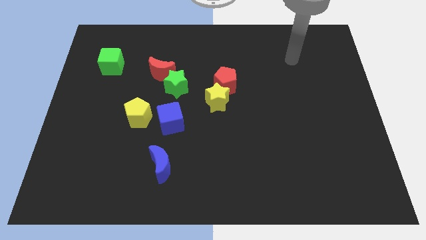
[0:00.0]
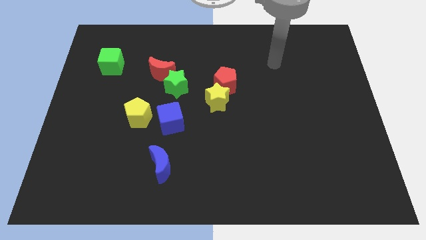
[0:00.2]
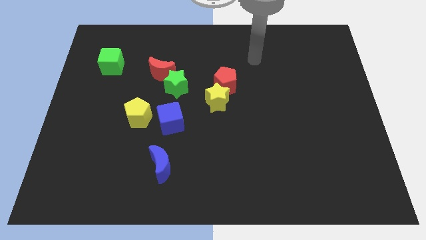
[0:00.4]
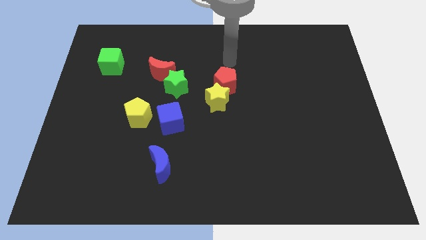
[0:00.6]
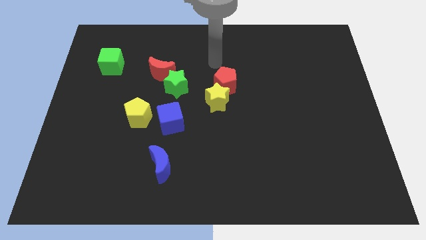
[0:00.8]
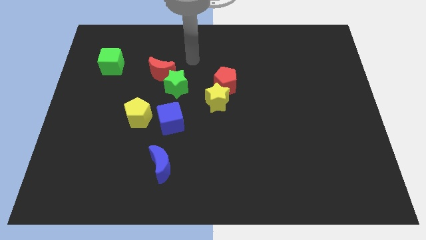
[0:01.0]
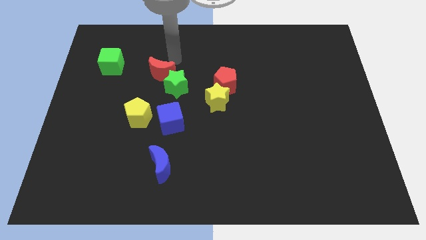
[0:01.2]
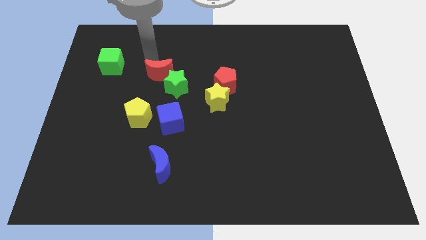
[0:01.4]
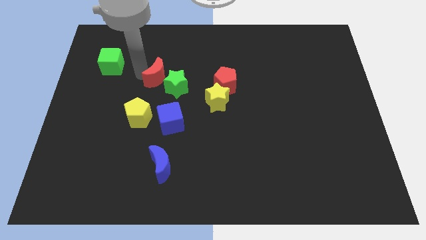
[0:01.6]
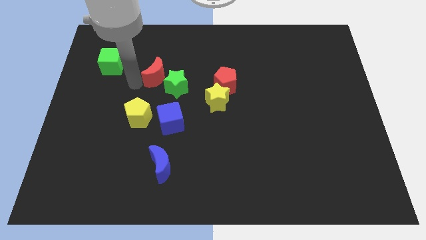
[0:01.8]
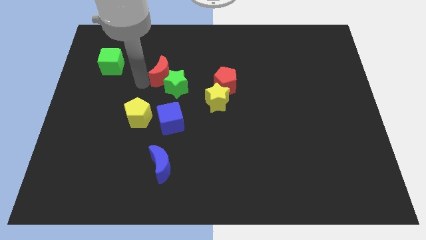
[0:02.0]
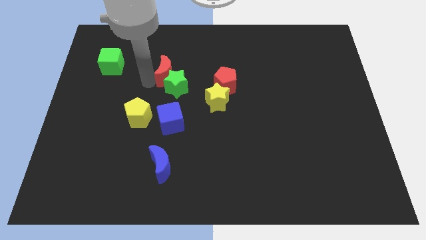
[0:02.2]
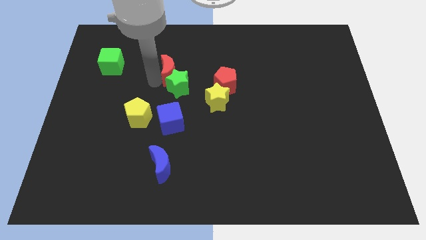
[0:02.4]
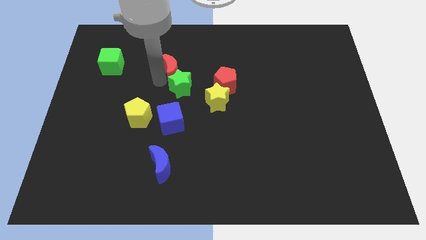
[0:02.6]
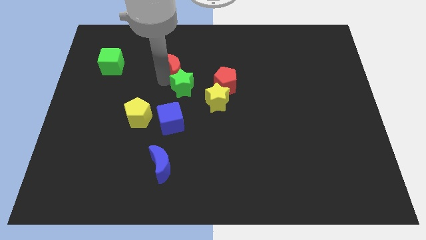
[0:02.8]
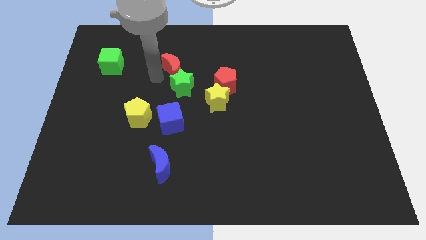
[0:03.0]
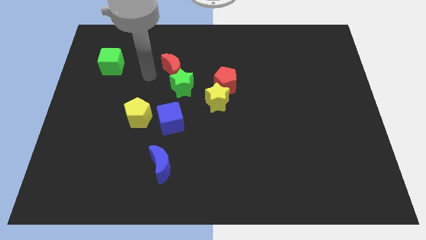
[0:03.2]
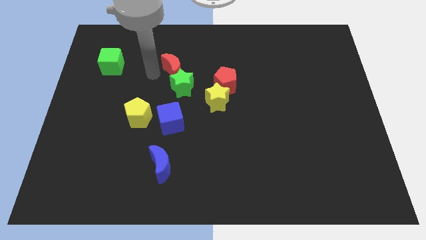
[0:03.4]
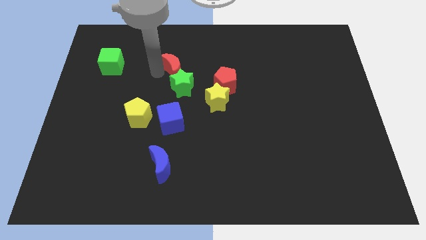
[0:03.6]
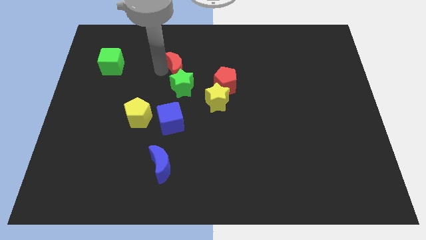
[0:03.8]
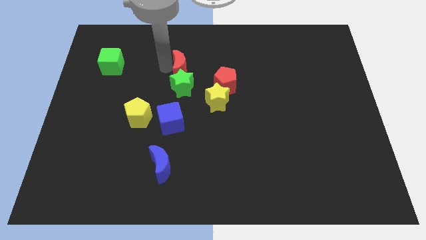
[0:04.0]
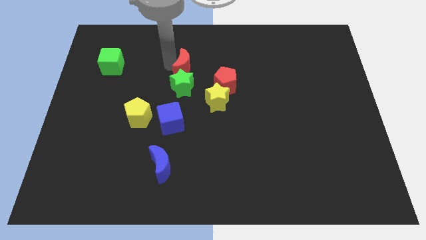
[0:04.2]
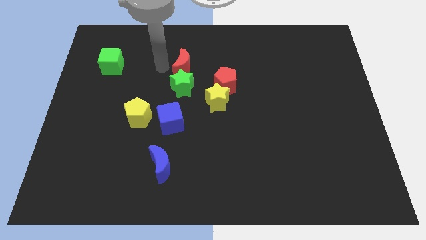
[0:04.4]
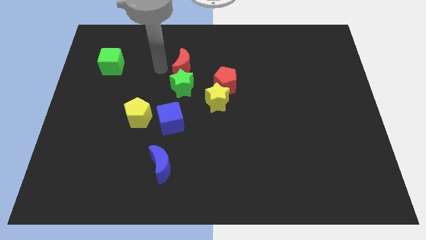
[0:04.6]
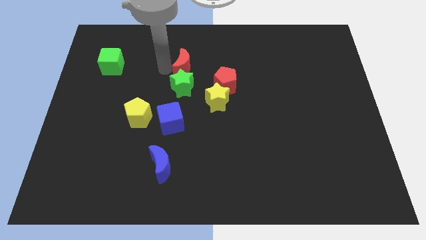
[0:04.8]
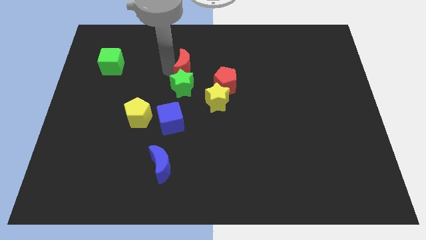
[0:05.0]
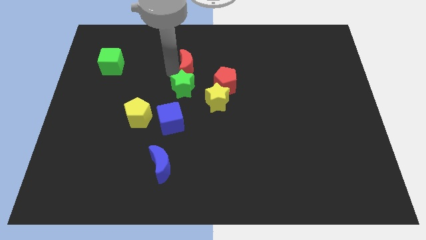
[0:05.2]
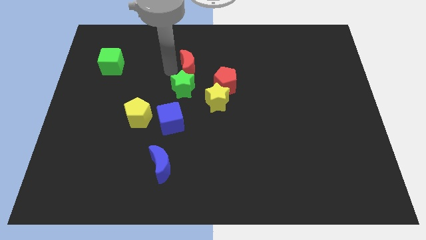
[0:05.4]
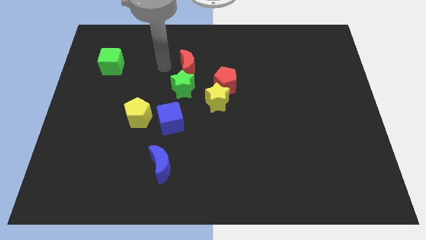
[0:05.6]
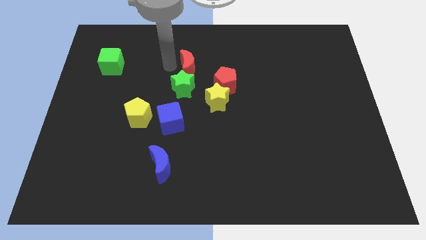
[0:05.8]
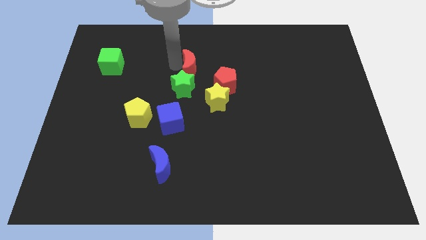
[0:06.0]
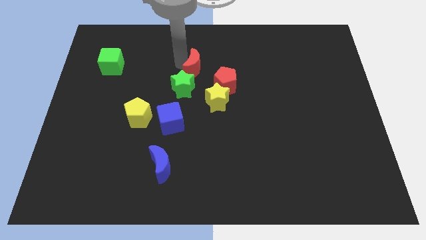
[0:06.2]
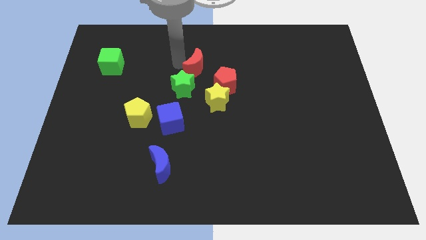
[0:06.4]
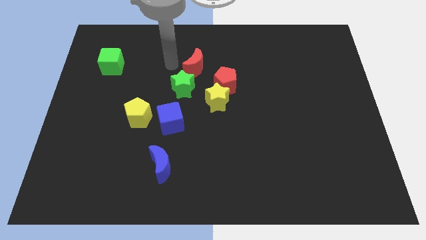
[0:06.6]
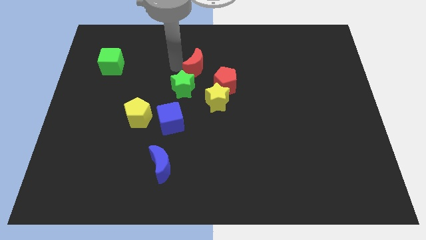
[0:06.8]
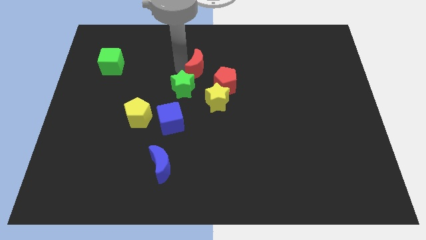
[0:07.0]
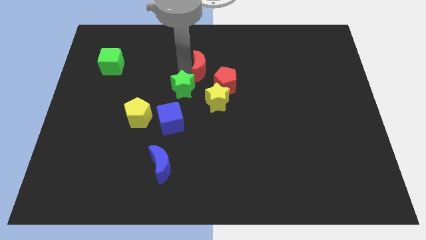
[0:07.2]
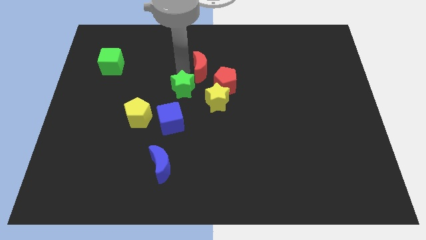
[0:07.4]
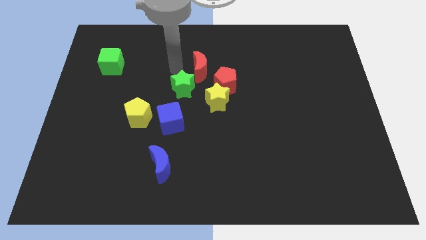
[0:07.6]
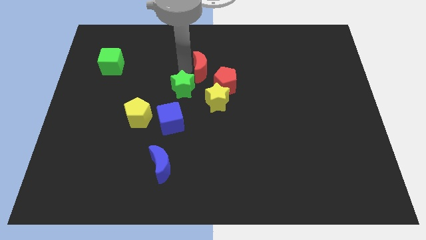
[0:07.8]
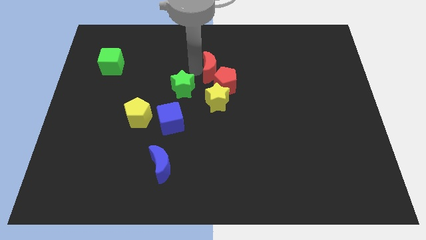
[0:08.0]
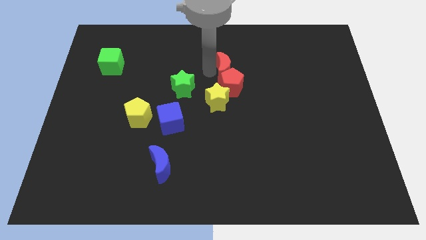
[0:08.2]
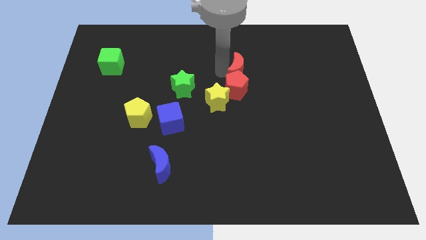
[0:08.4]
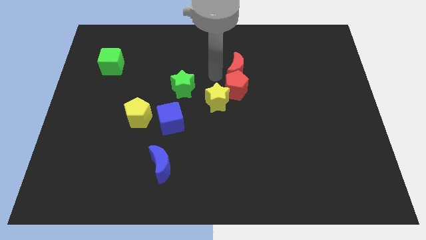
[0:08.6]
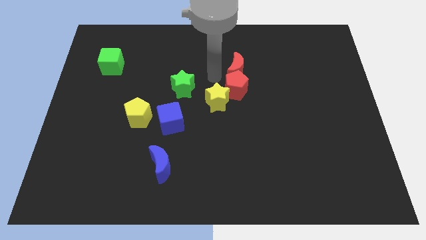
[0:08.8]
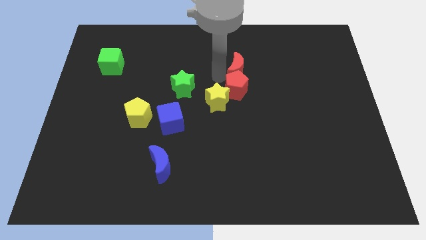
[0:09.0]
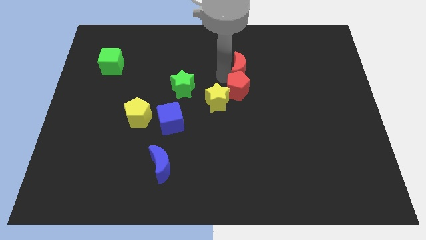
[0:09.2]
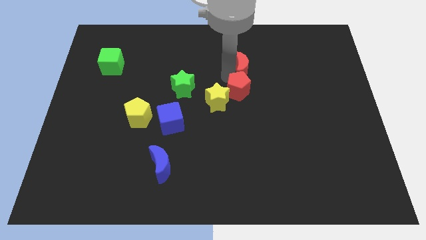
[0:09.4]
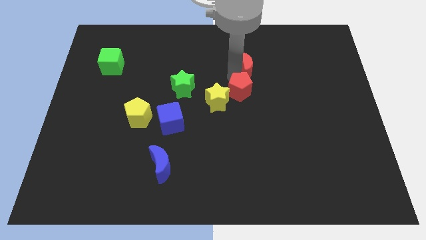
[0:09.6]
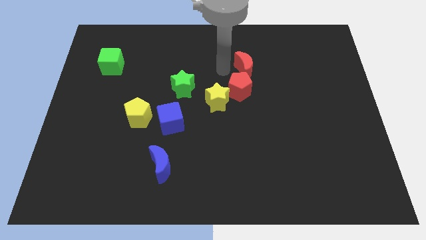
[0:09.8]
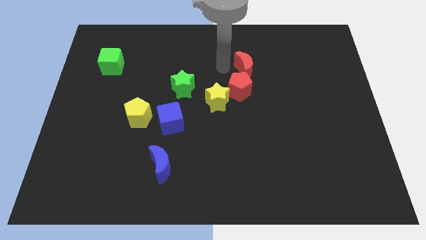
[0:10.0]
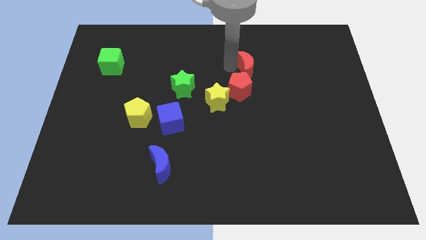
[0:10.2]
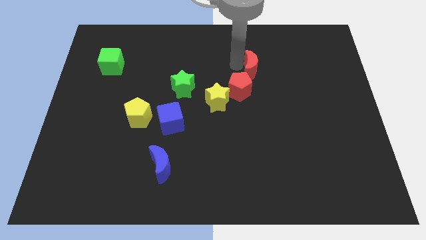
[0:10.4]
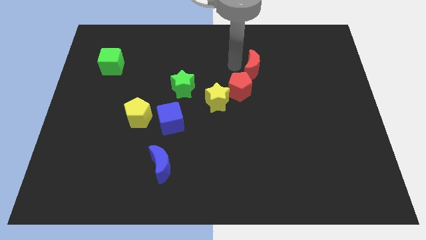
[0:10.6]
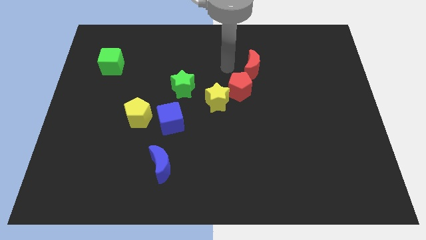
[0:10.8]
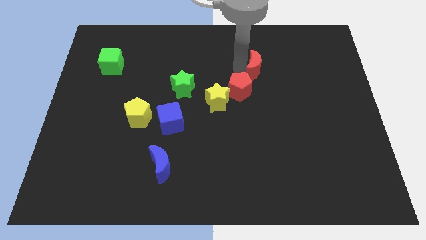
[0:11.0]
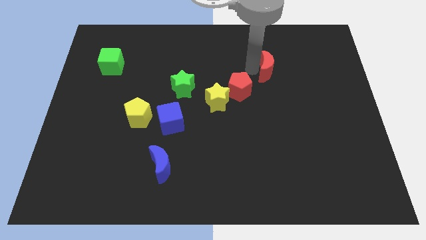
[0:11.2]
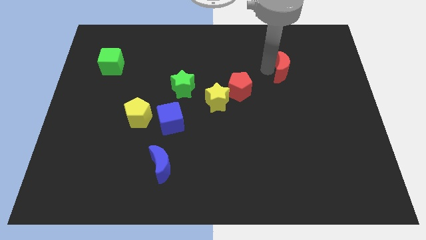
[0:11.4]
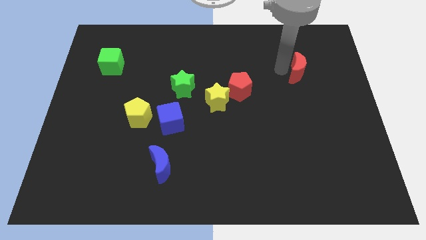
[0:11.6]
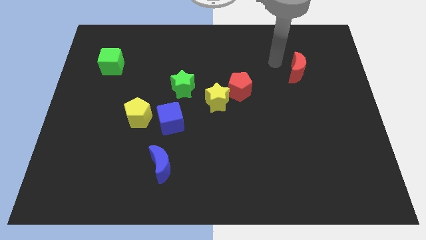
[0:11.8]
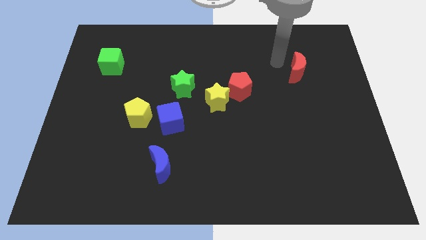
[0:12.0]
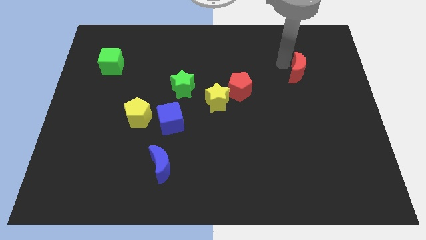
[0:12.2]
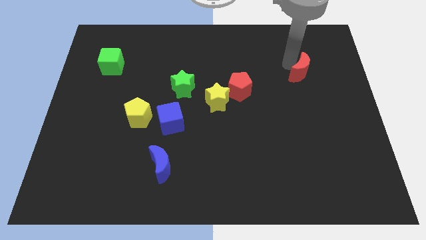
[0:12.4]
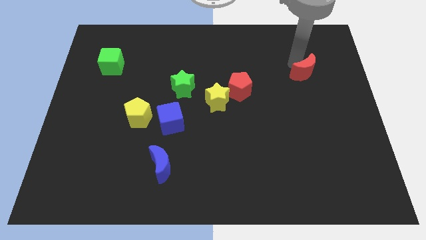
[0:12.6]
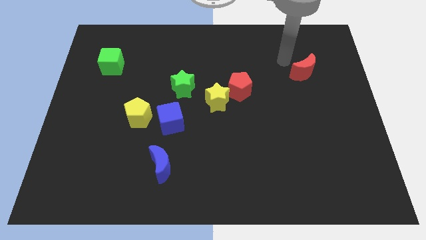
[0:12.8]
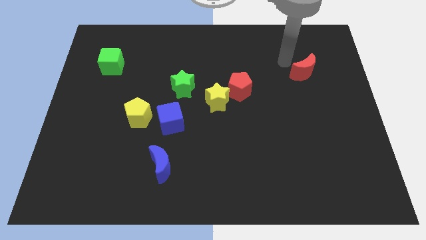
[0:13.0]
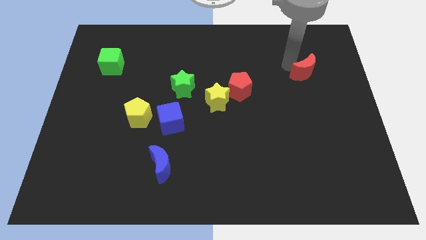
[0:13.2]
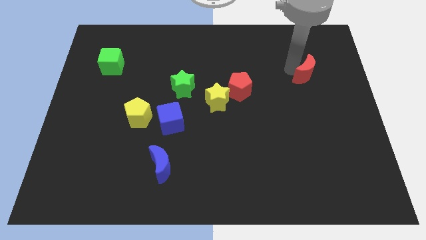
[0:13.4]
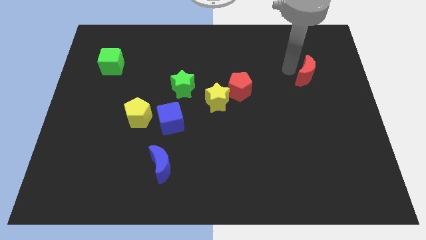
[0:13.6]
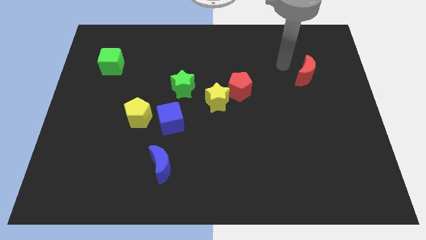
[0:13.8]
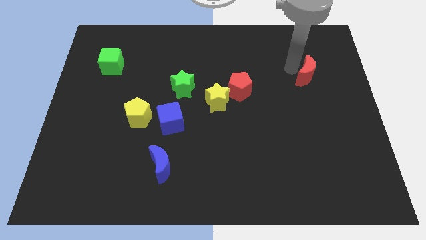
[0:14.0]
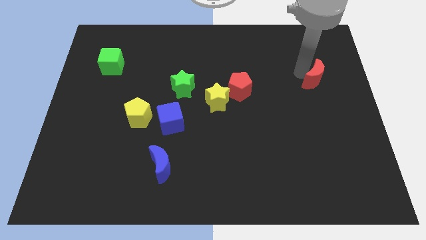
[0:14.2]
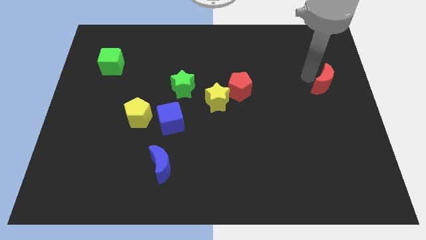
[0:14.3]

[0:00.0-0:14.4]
move the red moon to the right side of the board
